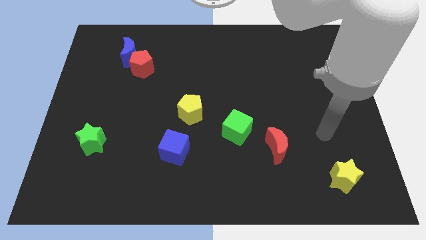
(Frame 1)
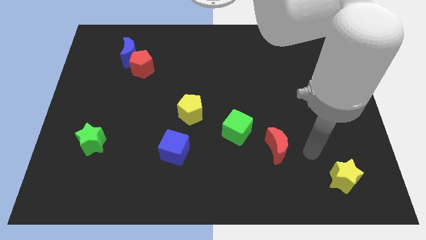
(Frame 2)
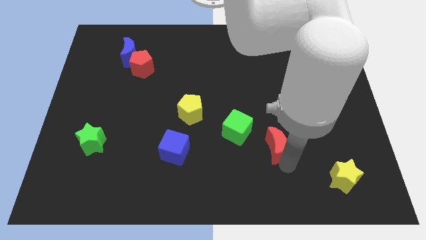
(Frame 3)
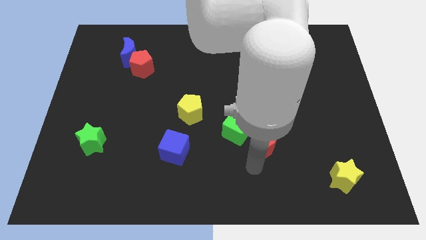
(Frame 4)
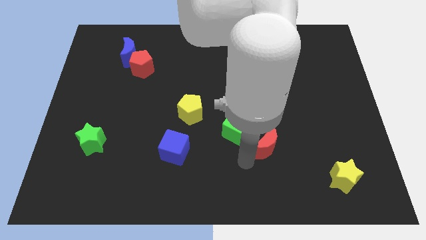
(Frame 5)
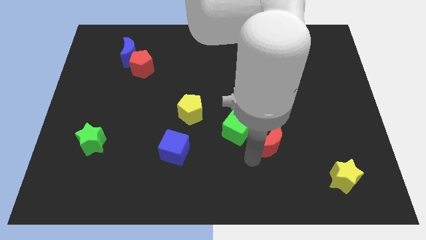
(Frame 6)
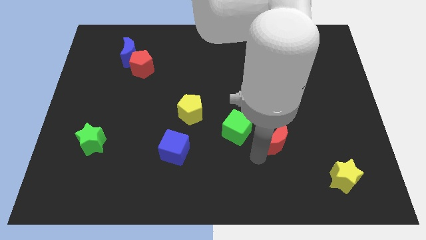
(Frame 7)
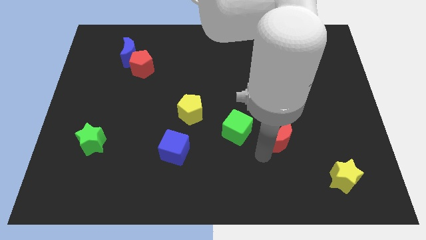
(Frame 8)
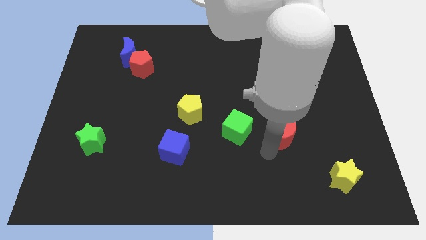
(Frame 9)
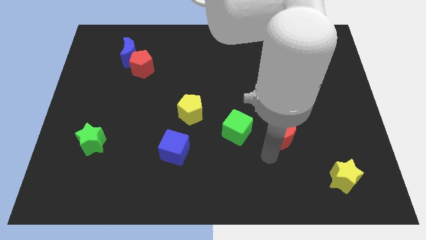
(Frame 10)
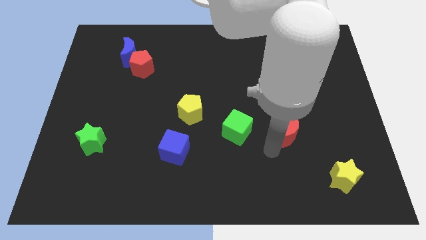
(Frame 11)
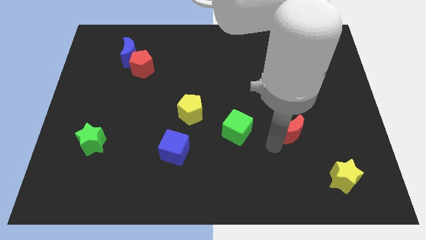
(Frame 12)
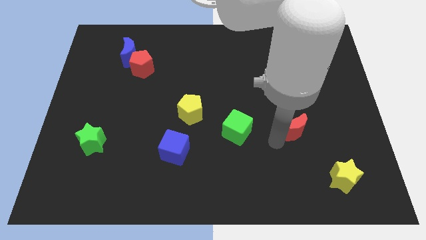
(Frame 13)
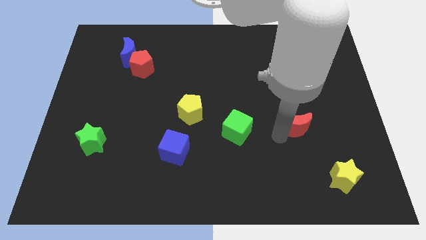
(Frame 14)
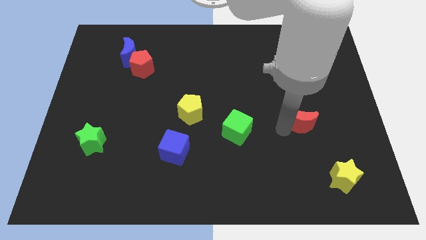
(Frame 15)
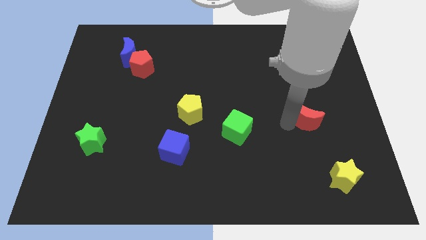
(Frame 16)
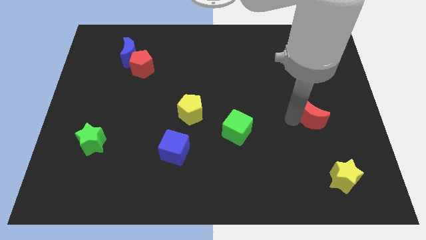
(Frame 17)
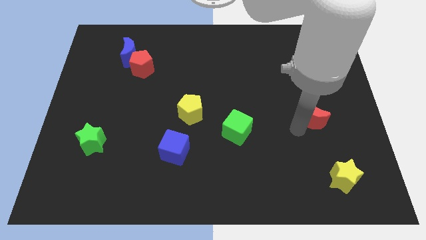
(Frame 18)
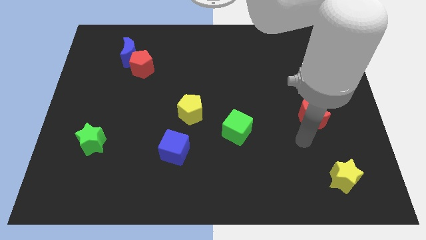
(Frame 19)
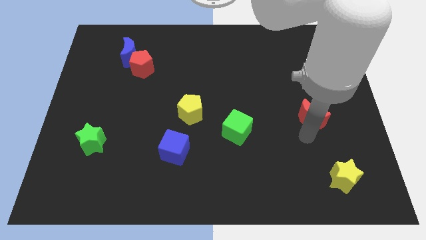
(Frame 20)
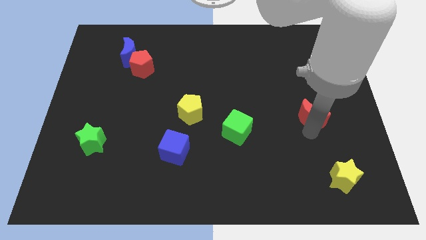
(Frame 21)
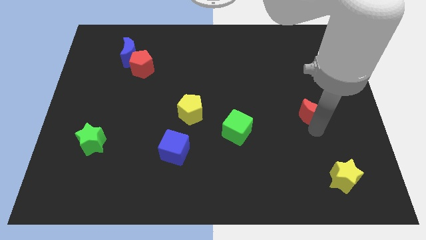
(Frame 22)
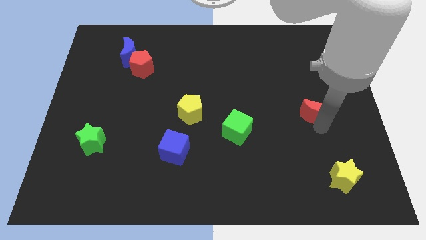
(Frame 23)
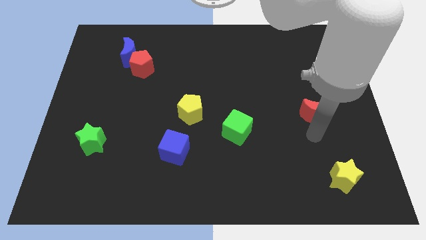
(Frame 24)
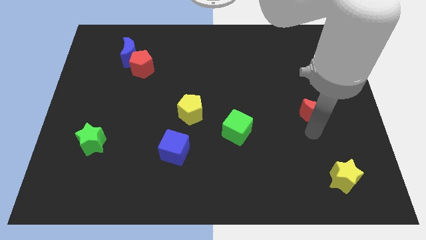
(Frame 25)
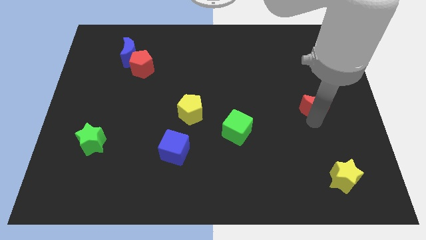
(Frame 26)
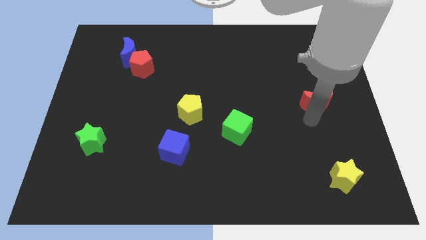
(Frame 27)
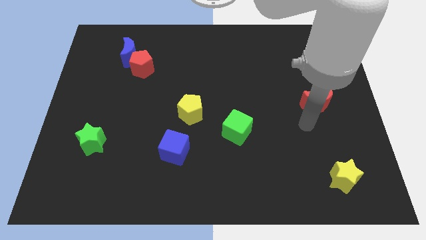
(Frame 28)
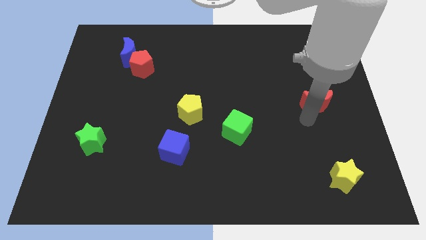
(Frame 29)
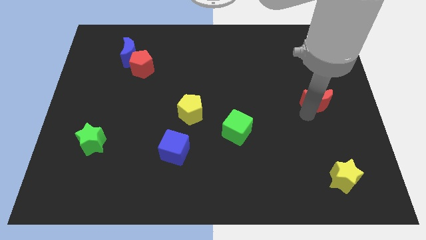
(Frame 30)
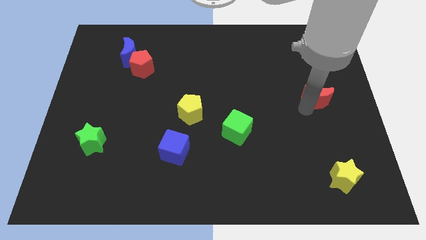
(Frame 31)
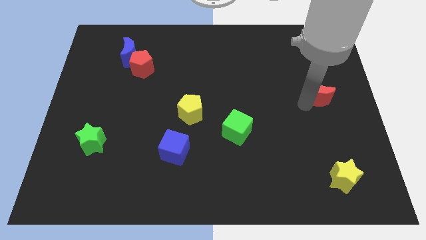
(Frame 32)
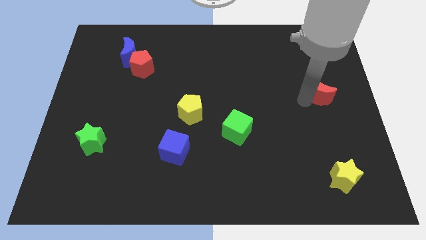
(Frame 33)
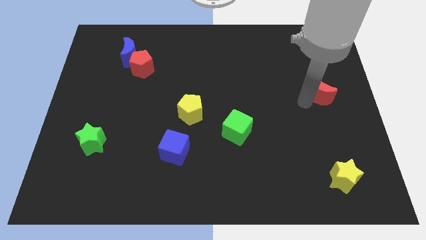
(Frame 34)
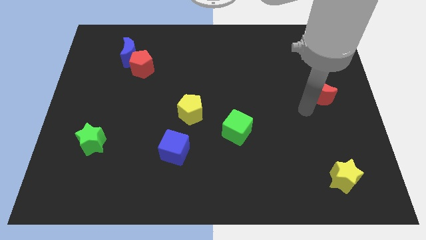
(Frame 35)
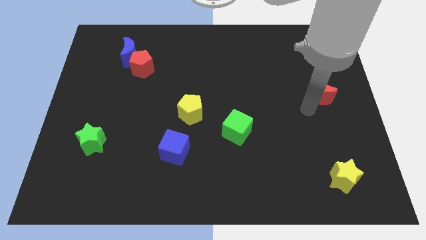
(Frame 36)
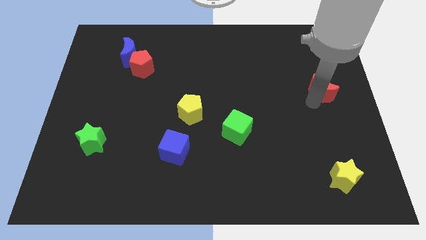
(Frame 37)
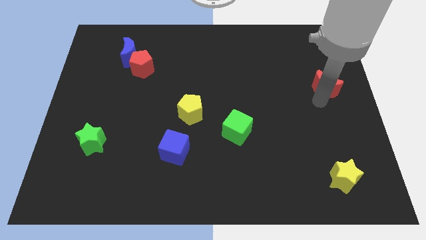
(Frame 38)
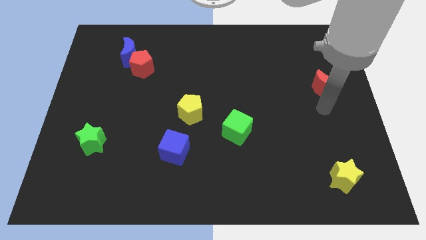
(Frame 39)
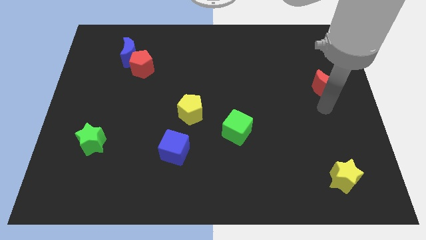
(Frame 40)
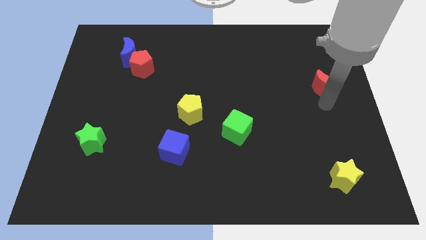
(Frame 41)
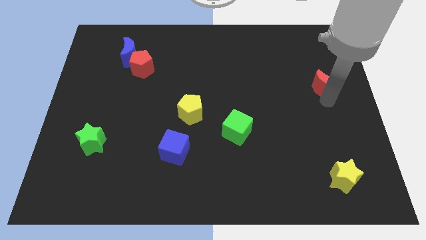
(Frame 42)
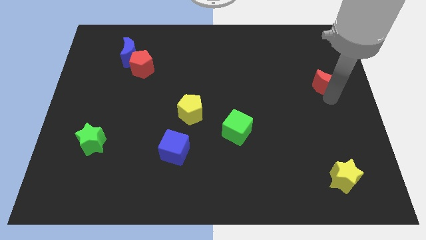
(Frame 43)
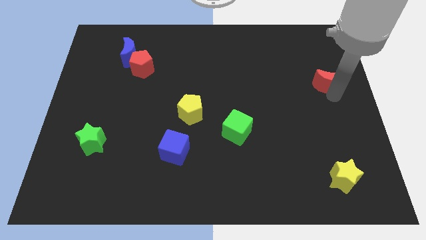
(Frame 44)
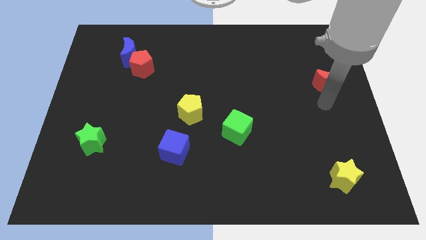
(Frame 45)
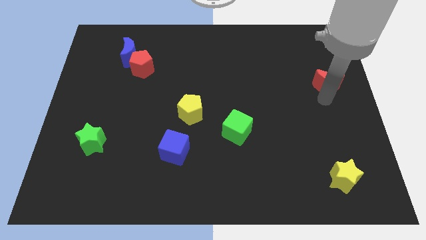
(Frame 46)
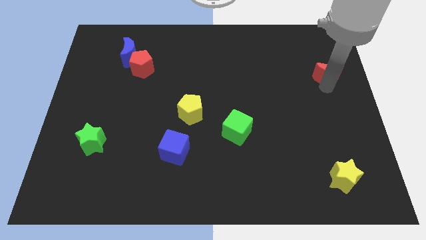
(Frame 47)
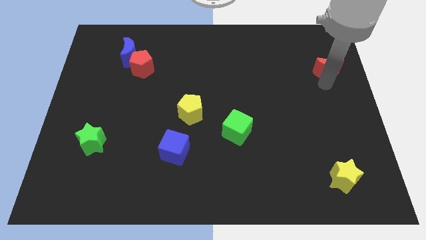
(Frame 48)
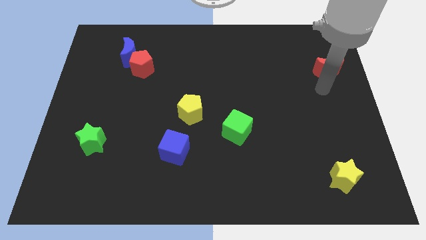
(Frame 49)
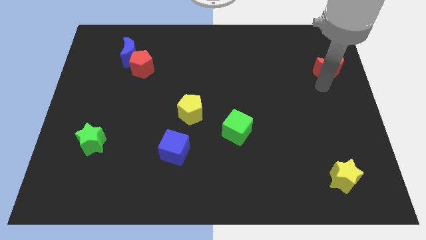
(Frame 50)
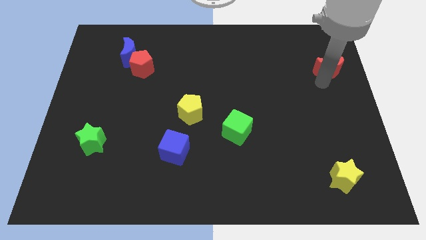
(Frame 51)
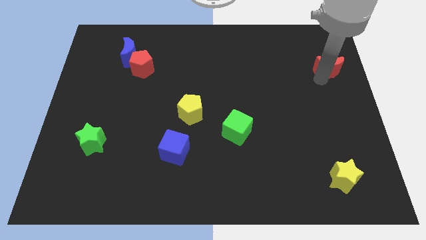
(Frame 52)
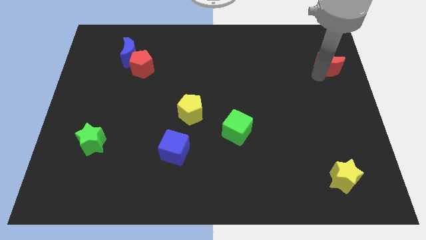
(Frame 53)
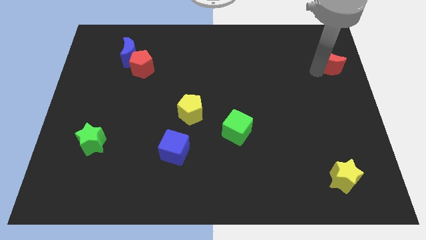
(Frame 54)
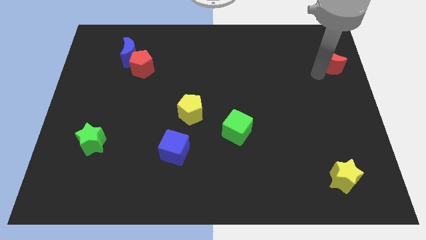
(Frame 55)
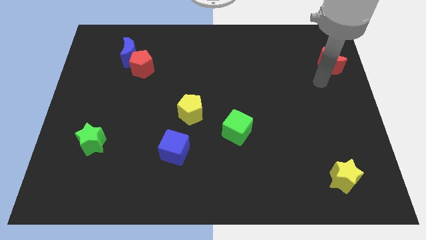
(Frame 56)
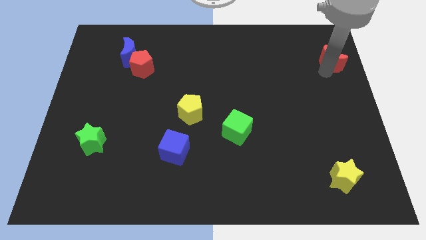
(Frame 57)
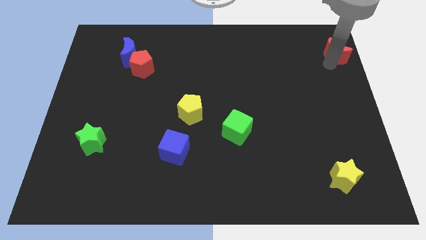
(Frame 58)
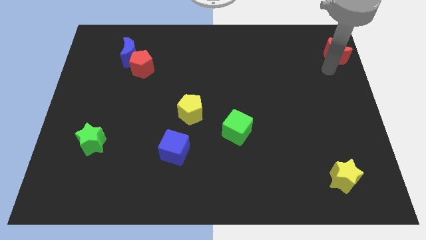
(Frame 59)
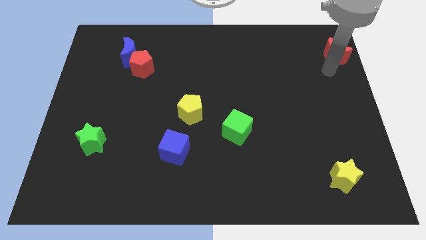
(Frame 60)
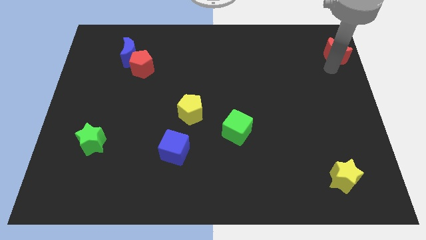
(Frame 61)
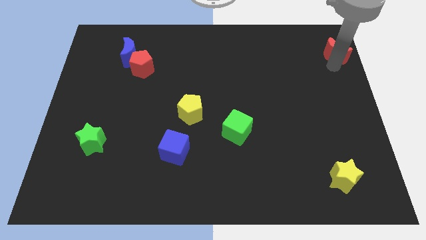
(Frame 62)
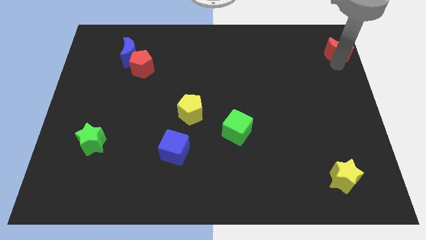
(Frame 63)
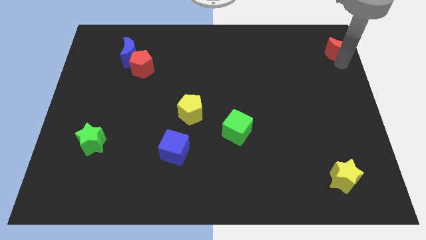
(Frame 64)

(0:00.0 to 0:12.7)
slide the red moon to the upper right corner
